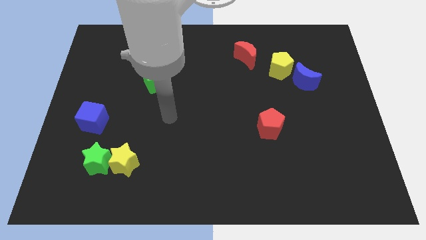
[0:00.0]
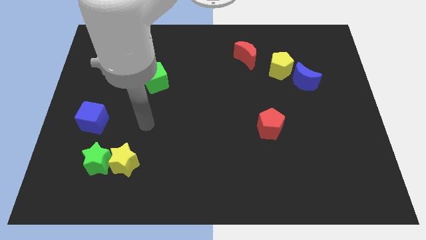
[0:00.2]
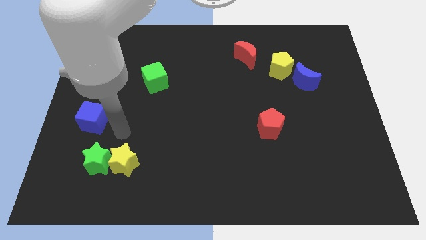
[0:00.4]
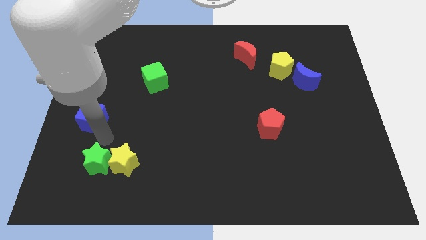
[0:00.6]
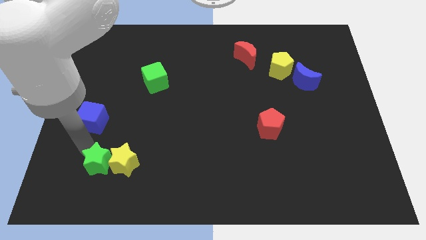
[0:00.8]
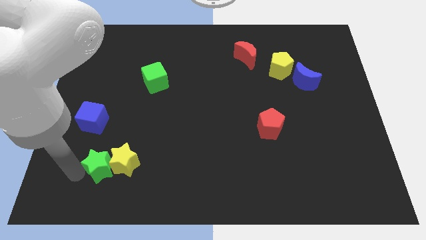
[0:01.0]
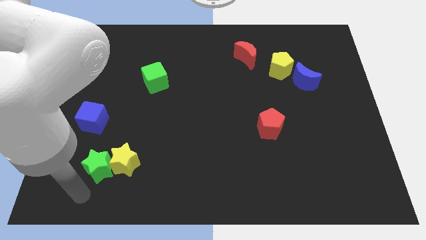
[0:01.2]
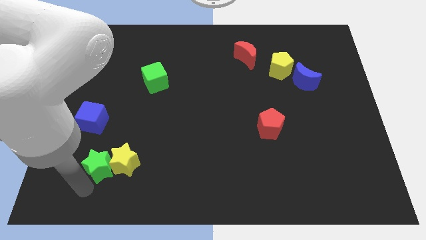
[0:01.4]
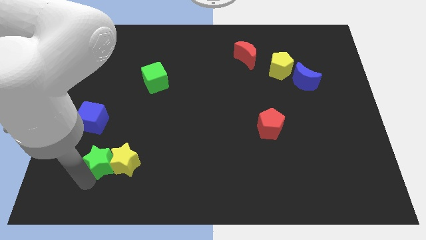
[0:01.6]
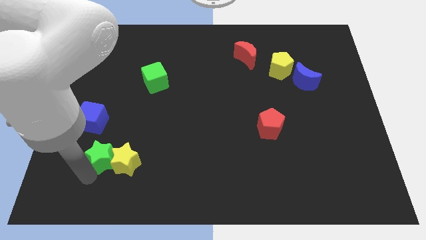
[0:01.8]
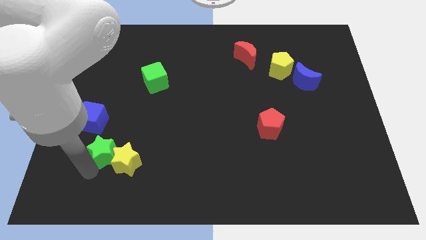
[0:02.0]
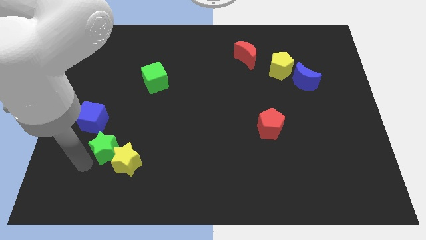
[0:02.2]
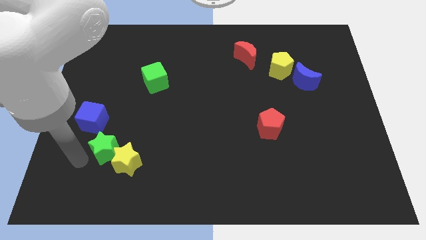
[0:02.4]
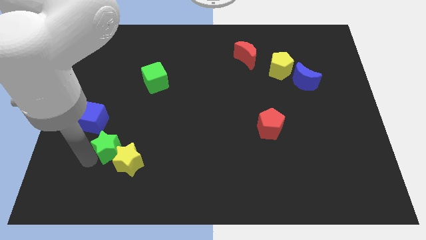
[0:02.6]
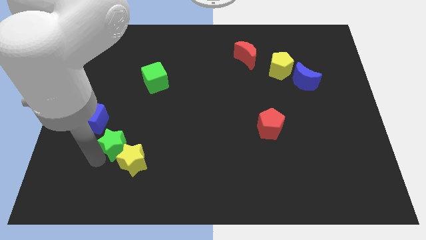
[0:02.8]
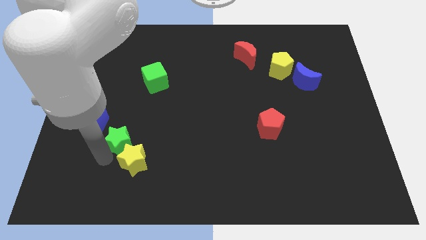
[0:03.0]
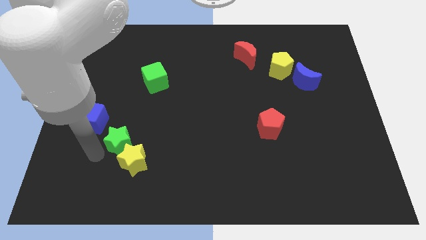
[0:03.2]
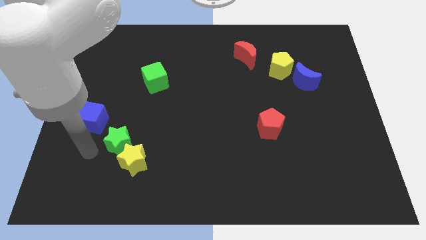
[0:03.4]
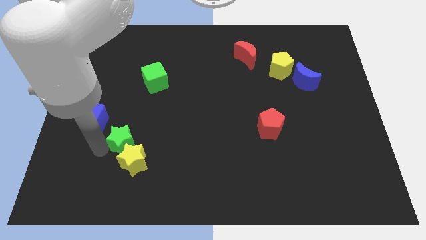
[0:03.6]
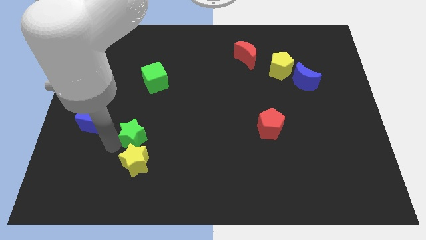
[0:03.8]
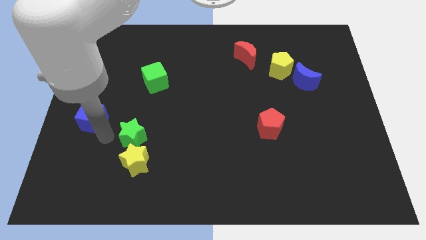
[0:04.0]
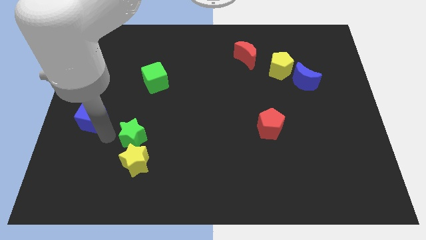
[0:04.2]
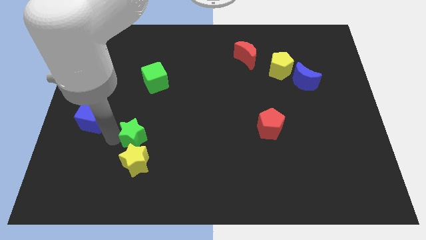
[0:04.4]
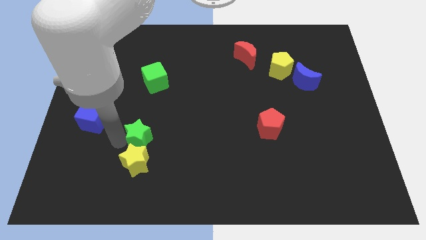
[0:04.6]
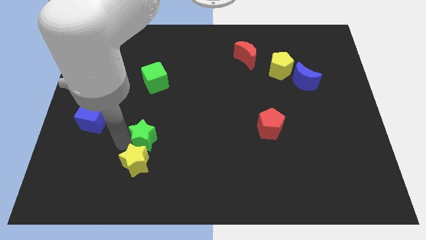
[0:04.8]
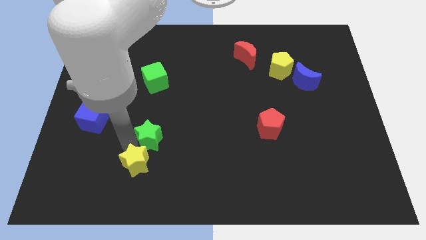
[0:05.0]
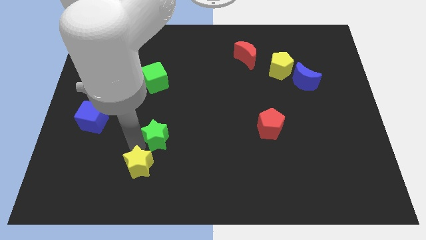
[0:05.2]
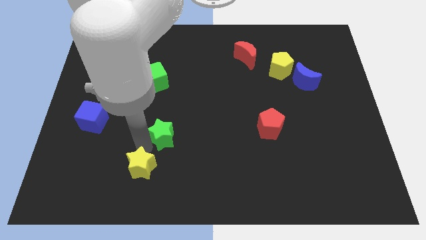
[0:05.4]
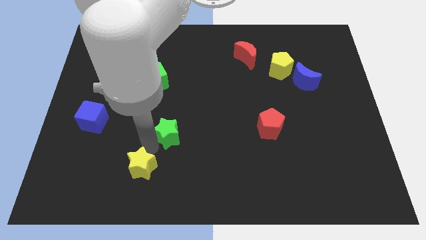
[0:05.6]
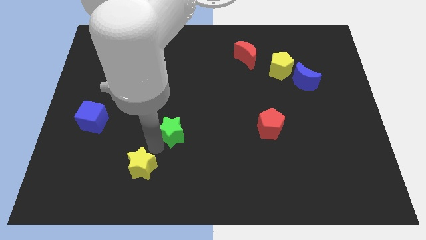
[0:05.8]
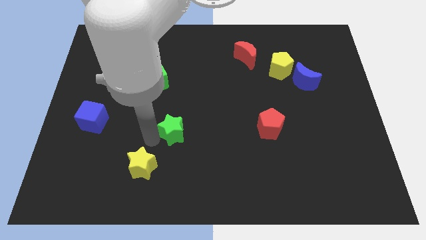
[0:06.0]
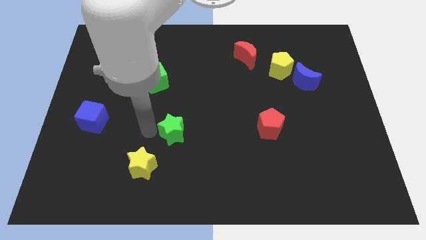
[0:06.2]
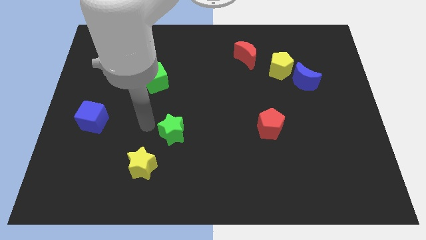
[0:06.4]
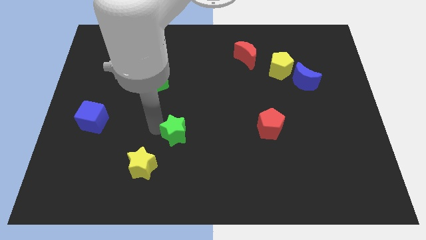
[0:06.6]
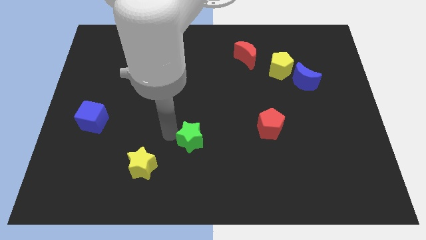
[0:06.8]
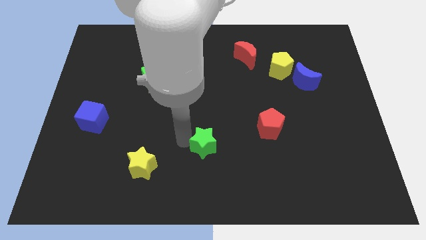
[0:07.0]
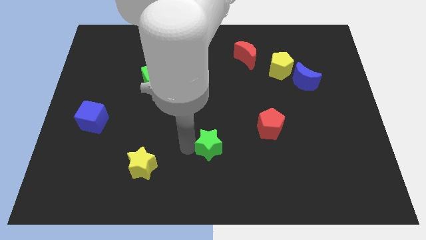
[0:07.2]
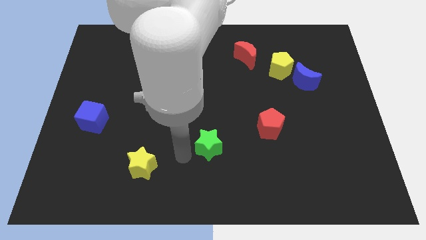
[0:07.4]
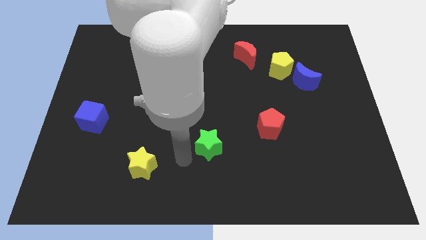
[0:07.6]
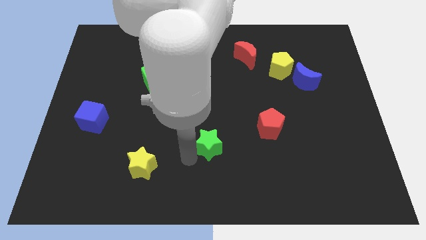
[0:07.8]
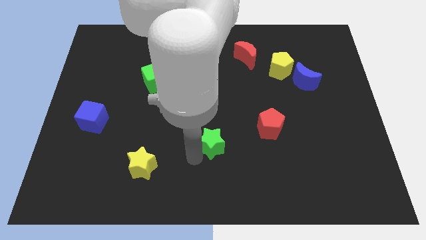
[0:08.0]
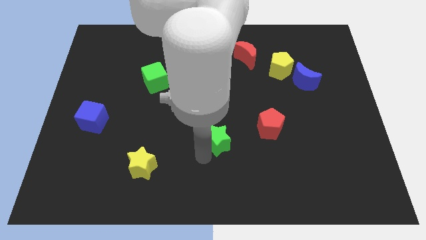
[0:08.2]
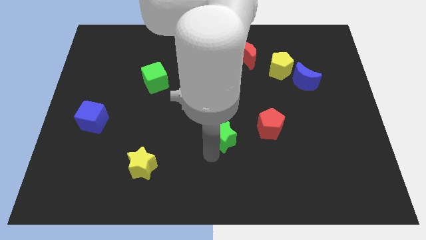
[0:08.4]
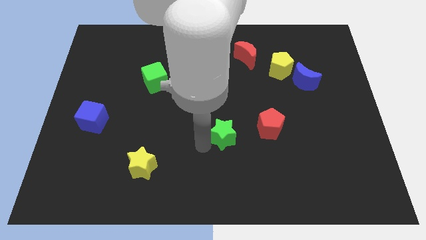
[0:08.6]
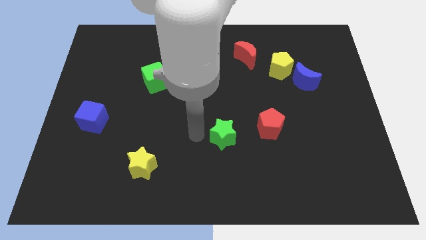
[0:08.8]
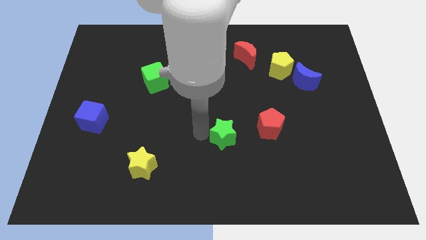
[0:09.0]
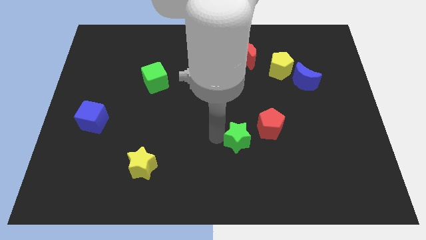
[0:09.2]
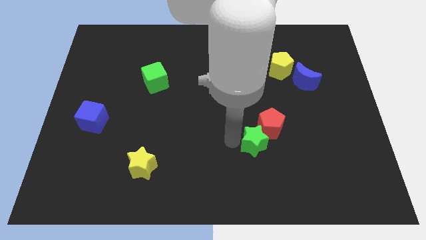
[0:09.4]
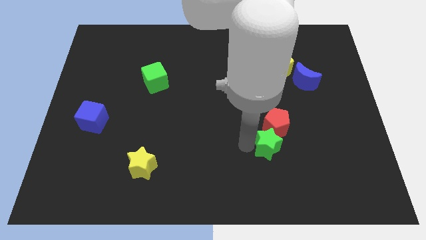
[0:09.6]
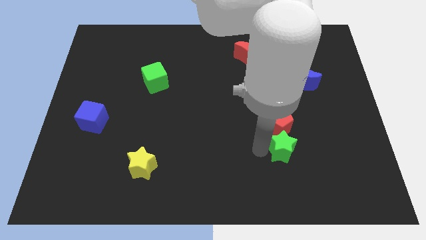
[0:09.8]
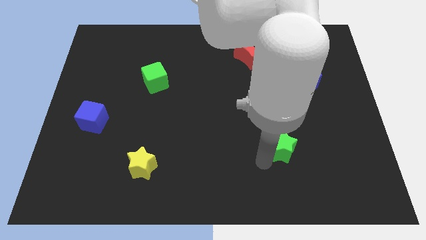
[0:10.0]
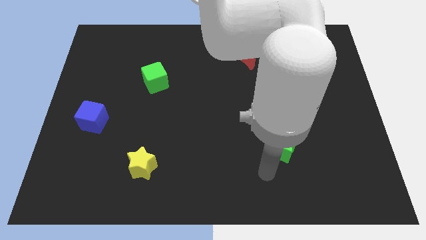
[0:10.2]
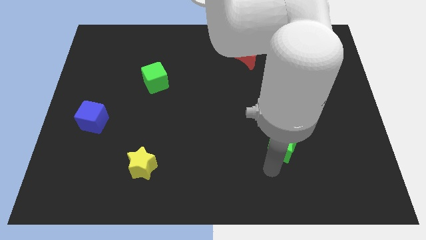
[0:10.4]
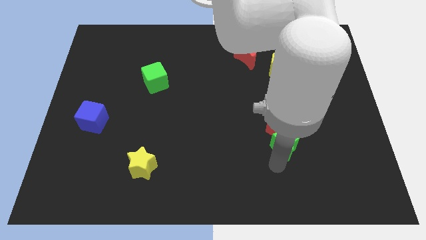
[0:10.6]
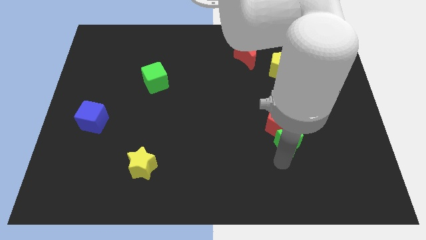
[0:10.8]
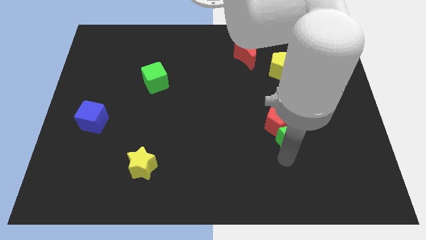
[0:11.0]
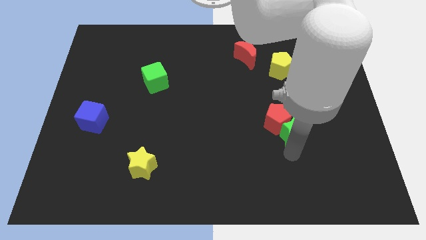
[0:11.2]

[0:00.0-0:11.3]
put the green star to the right side of the red pentagon

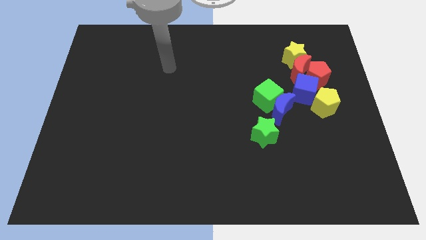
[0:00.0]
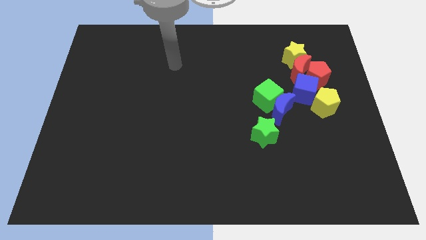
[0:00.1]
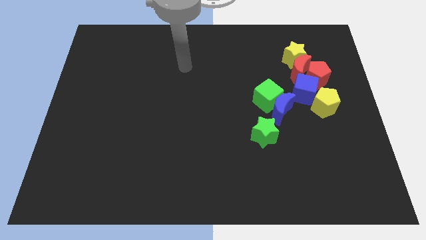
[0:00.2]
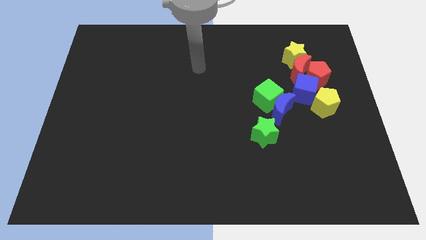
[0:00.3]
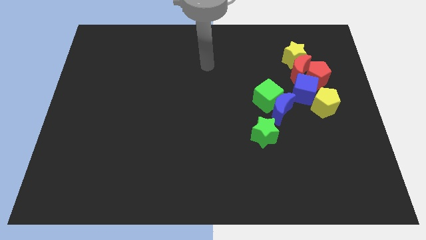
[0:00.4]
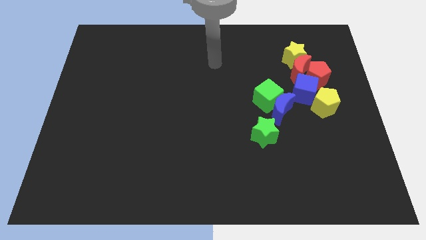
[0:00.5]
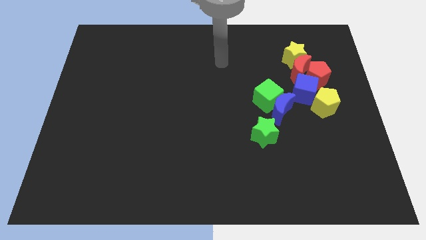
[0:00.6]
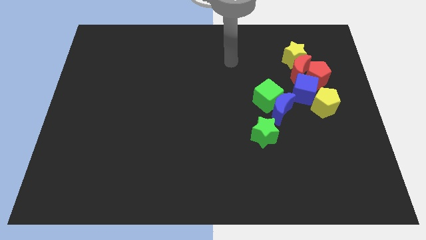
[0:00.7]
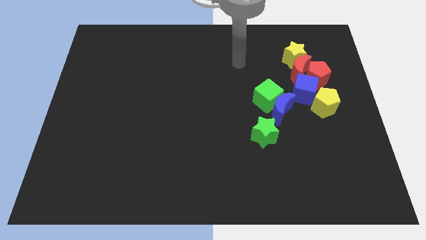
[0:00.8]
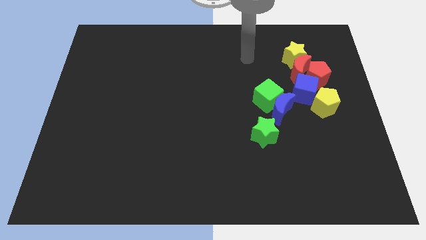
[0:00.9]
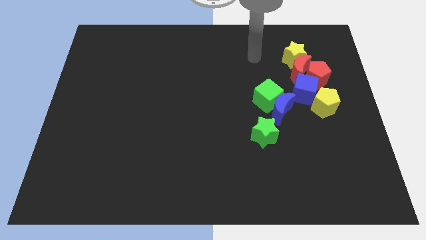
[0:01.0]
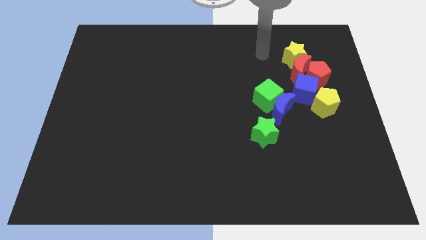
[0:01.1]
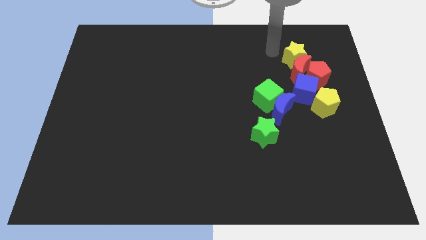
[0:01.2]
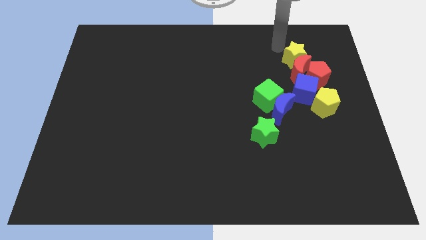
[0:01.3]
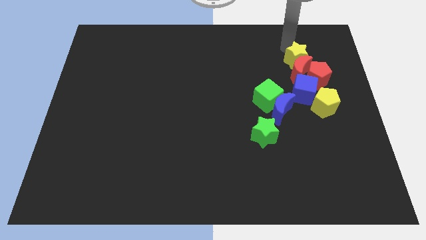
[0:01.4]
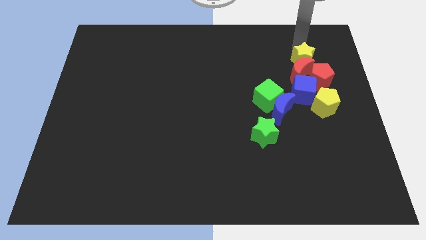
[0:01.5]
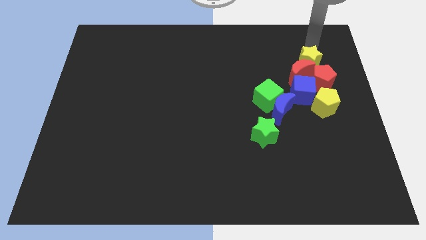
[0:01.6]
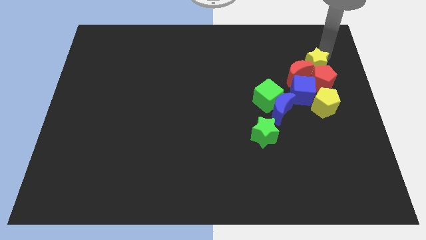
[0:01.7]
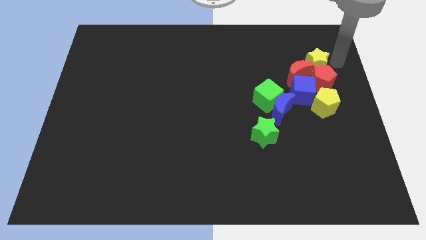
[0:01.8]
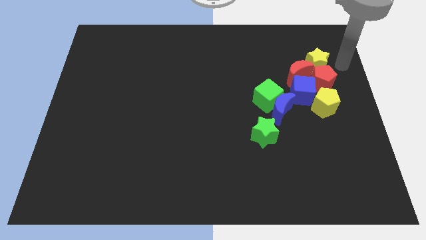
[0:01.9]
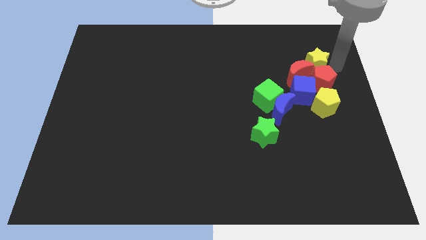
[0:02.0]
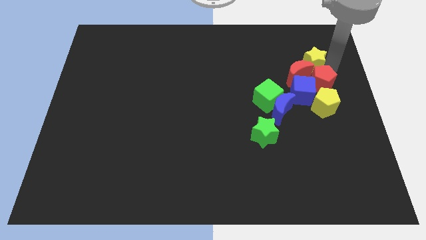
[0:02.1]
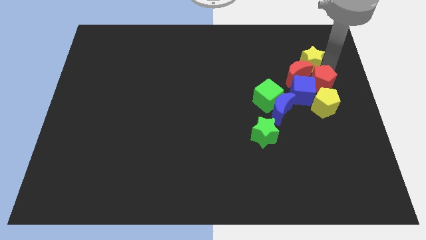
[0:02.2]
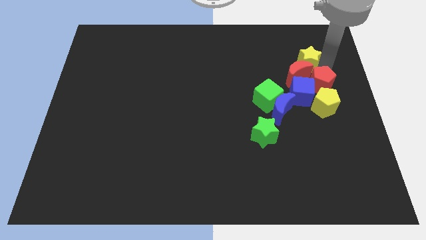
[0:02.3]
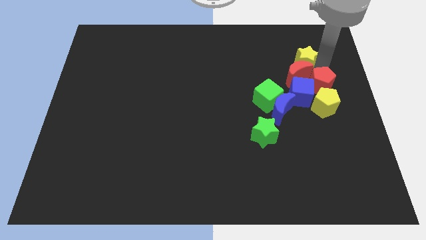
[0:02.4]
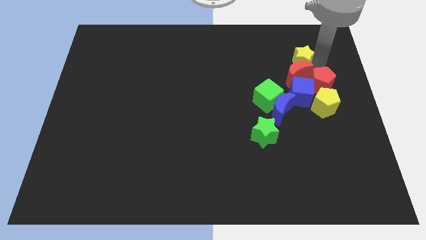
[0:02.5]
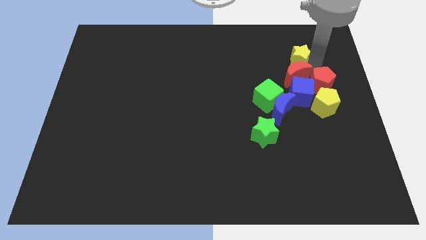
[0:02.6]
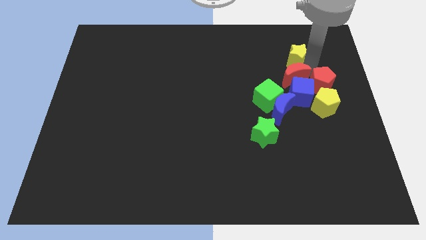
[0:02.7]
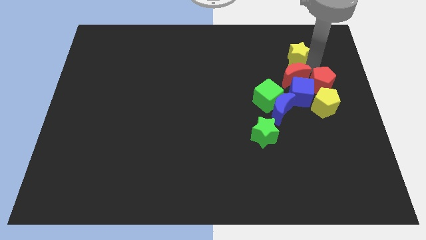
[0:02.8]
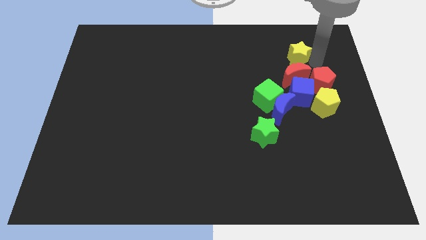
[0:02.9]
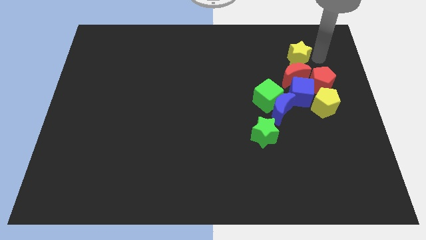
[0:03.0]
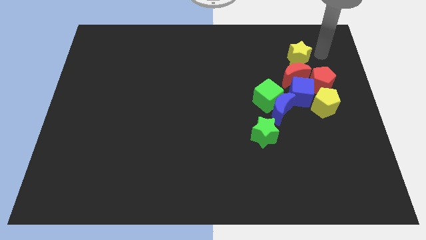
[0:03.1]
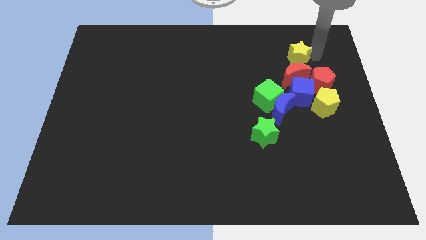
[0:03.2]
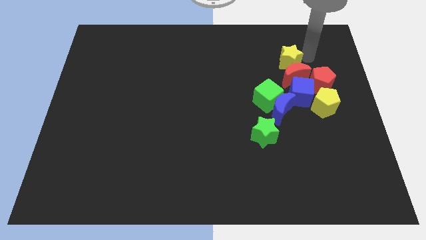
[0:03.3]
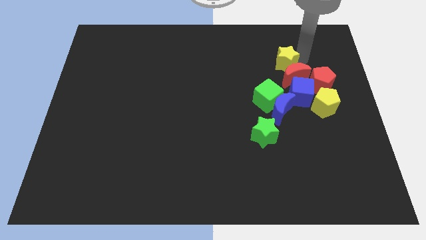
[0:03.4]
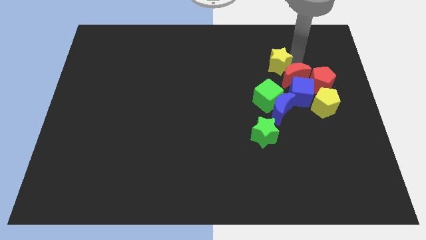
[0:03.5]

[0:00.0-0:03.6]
slide the yellow star above the green cube
